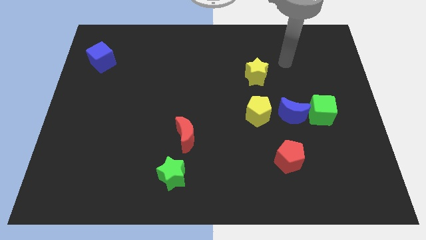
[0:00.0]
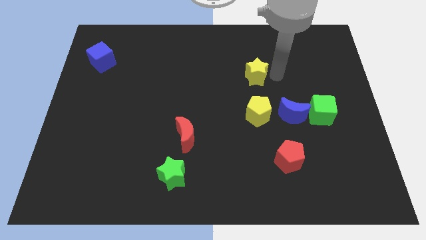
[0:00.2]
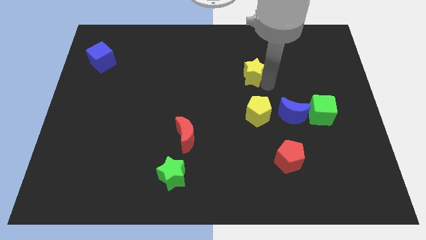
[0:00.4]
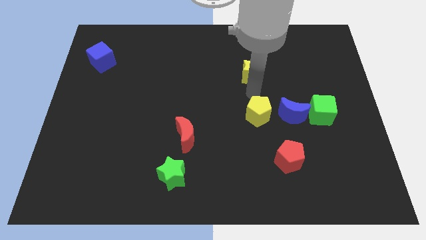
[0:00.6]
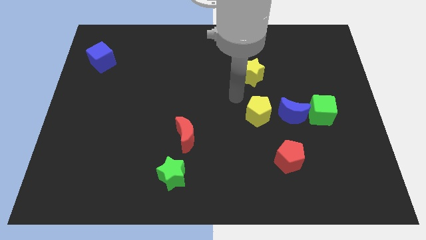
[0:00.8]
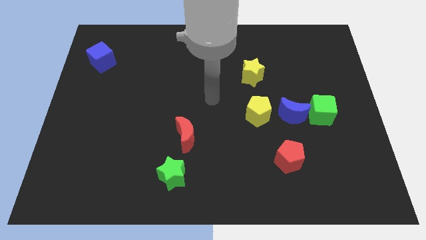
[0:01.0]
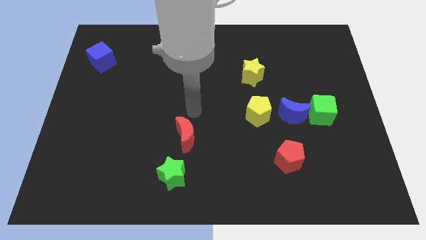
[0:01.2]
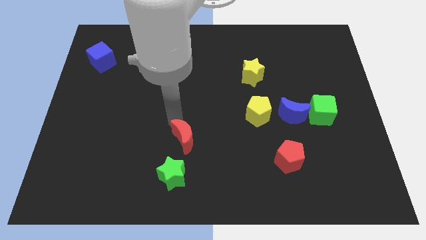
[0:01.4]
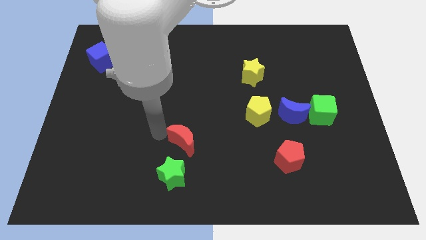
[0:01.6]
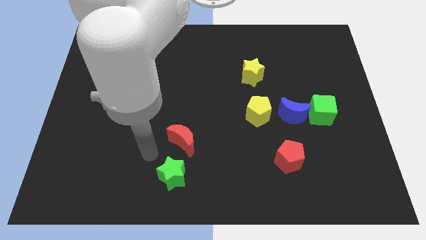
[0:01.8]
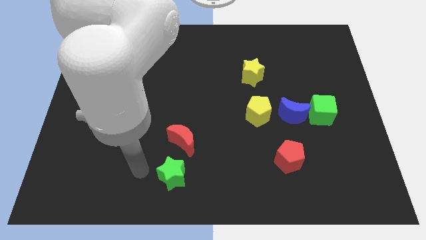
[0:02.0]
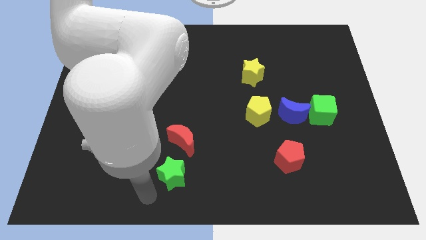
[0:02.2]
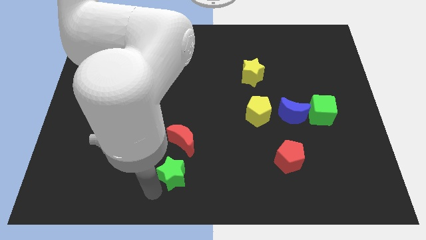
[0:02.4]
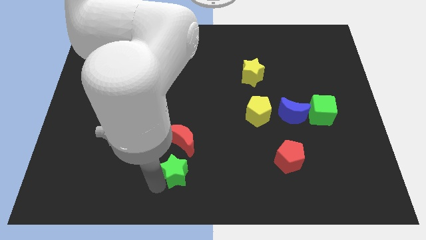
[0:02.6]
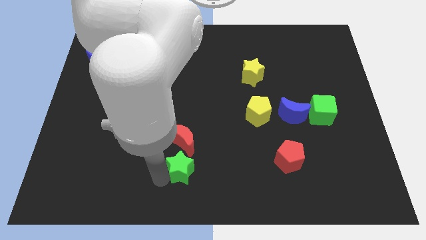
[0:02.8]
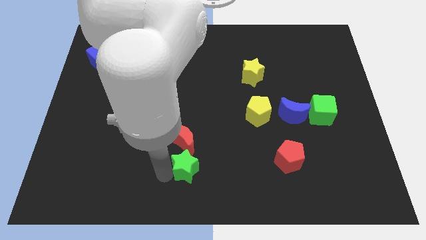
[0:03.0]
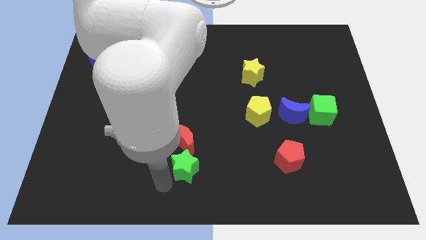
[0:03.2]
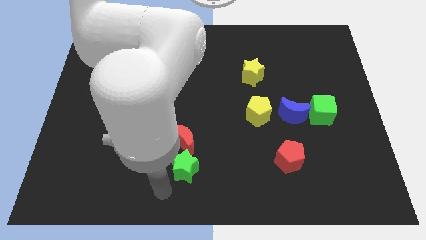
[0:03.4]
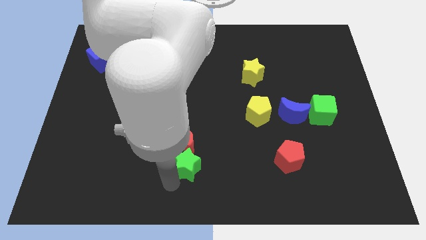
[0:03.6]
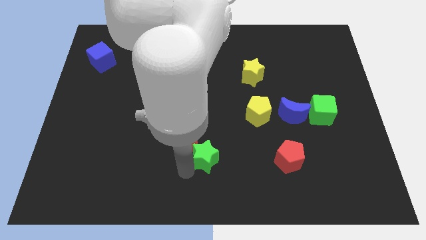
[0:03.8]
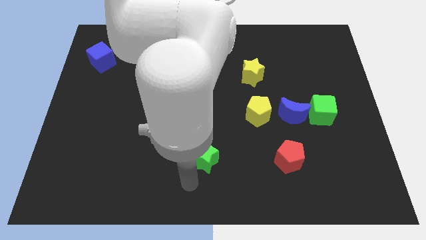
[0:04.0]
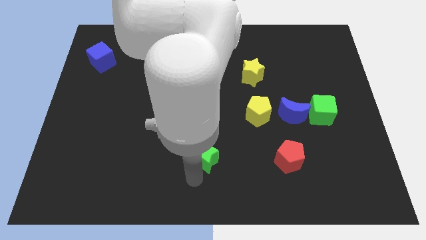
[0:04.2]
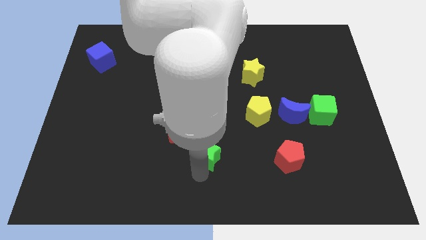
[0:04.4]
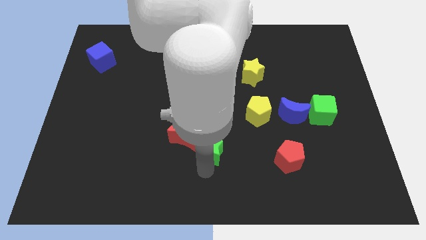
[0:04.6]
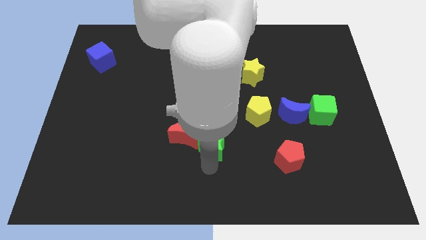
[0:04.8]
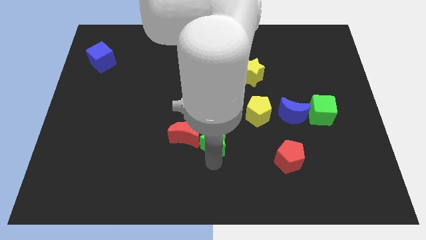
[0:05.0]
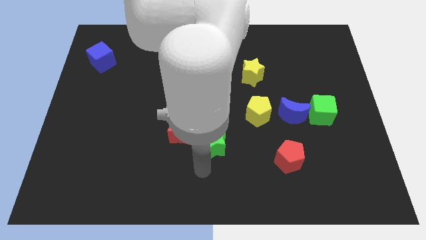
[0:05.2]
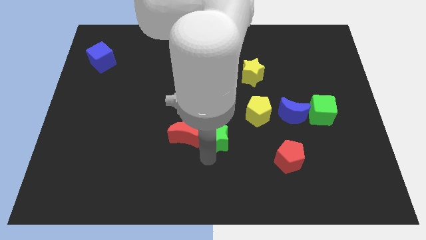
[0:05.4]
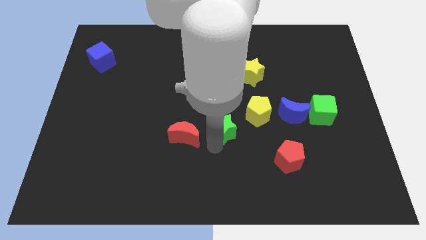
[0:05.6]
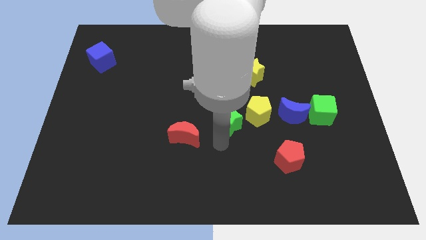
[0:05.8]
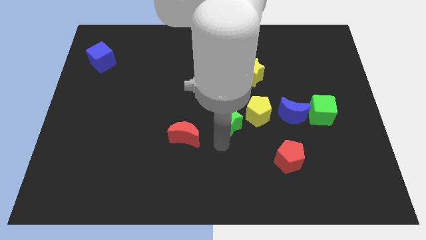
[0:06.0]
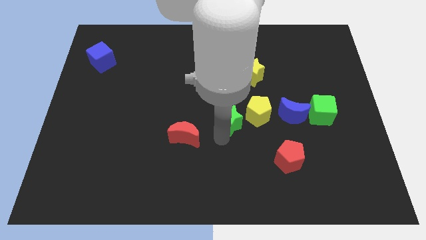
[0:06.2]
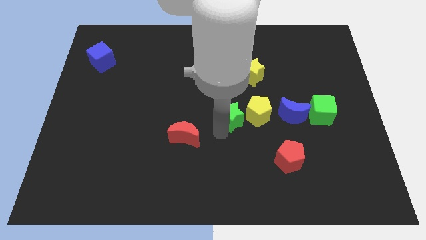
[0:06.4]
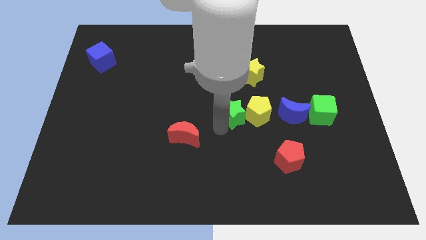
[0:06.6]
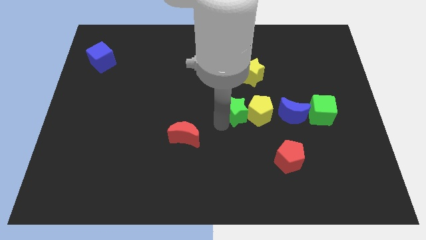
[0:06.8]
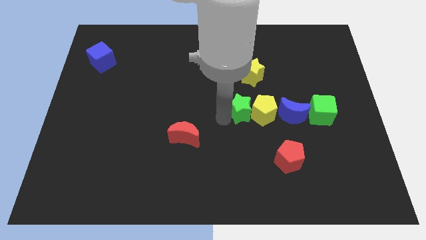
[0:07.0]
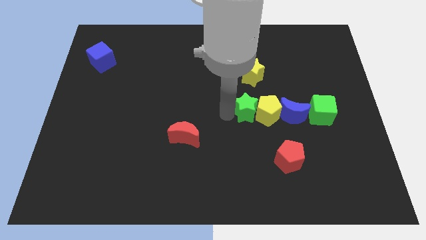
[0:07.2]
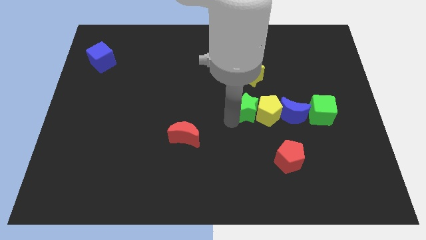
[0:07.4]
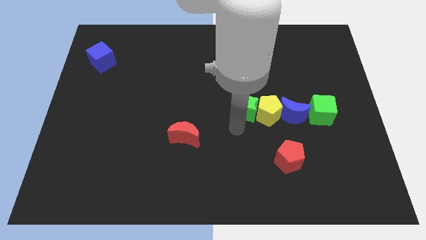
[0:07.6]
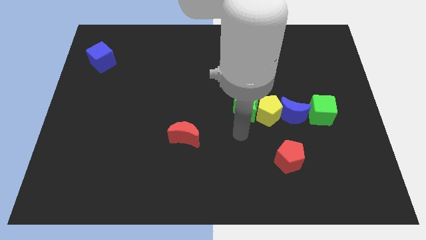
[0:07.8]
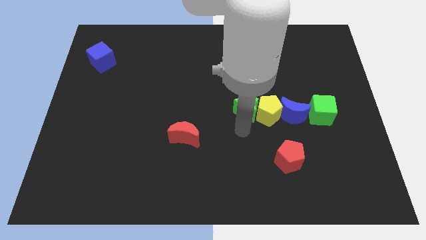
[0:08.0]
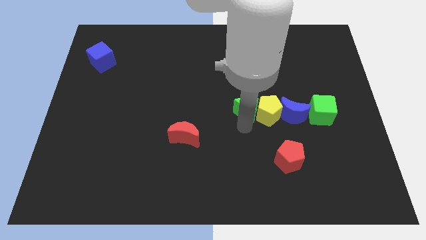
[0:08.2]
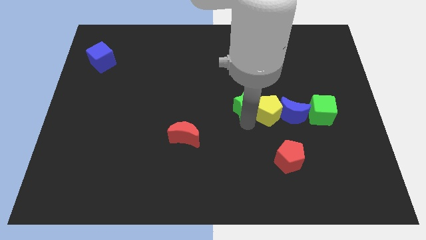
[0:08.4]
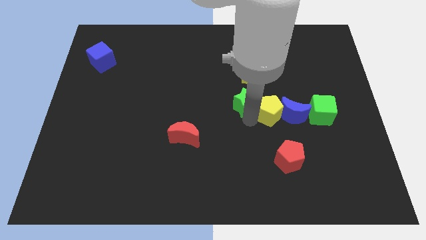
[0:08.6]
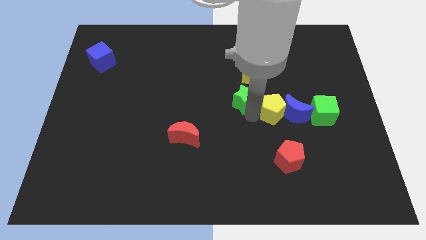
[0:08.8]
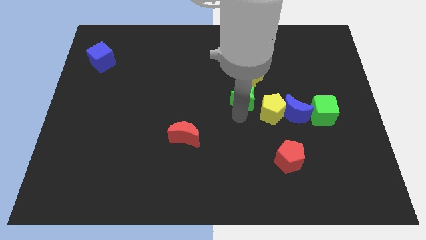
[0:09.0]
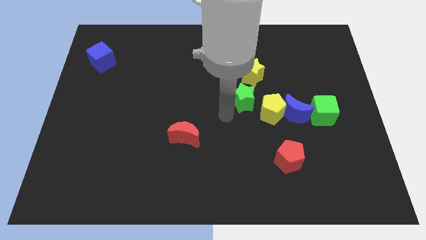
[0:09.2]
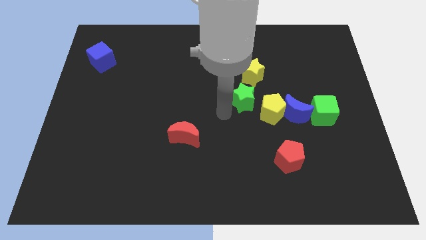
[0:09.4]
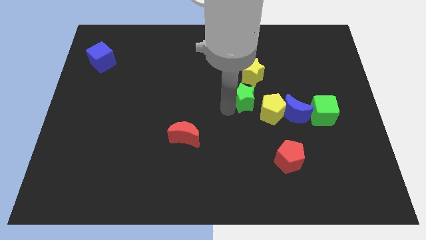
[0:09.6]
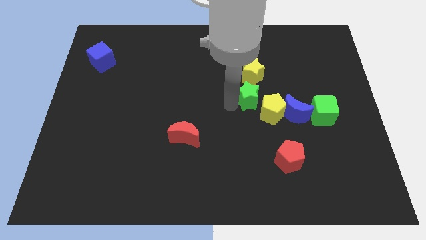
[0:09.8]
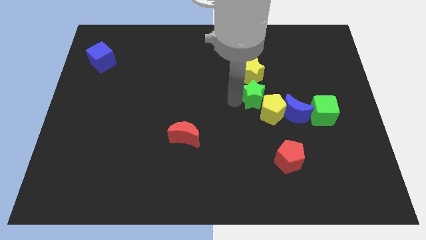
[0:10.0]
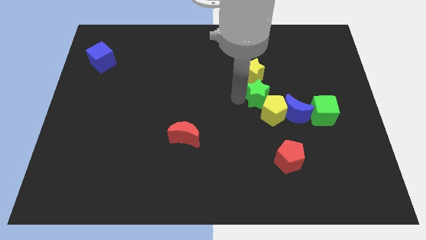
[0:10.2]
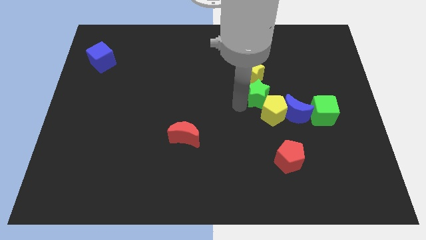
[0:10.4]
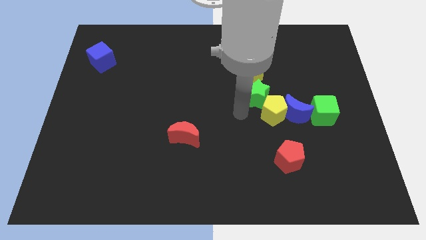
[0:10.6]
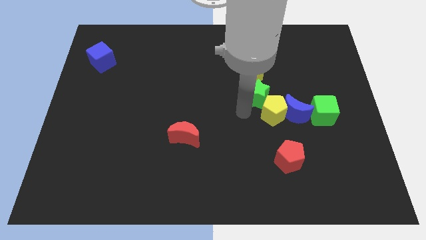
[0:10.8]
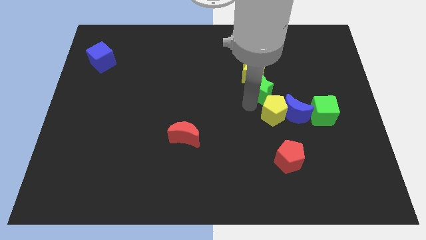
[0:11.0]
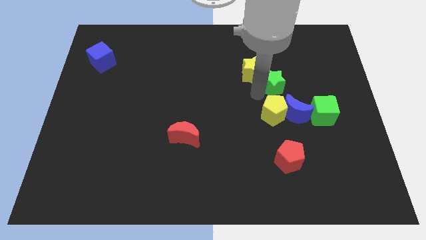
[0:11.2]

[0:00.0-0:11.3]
push the green star above the blue moon

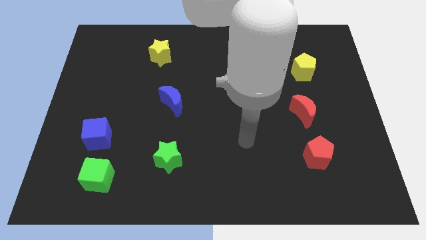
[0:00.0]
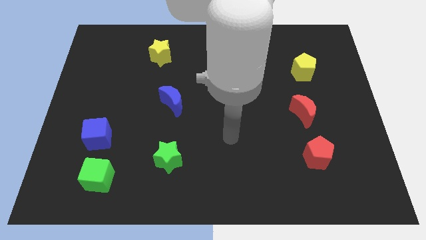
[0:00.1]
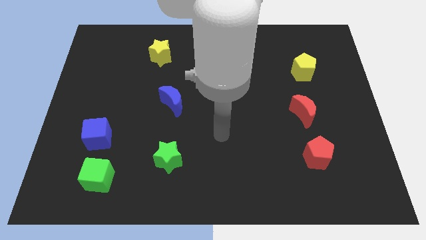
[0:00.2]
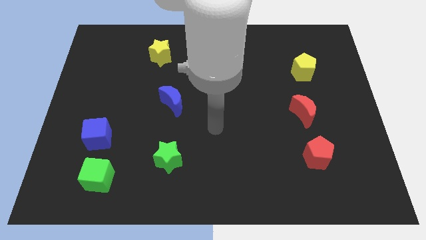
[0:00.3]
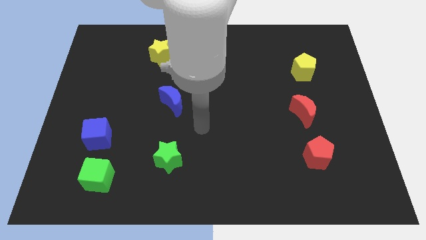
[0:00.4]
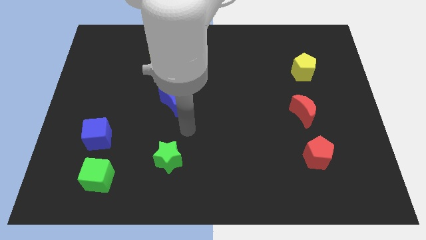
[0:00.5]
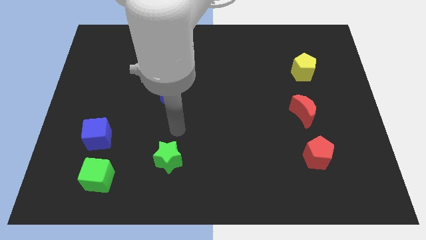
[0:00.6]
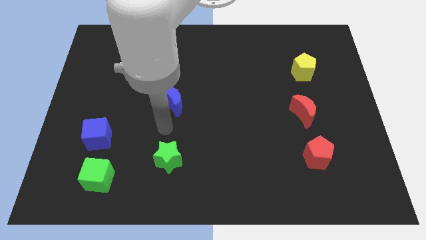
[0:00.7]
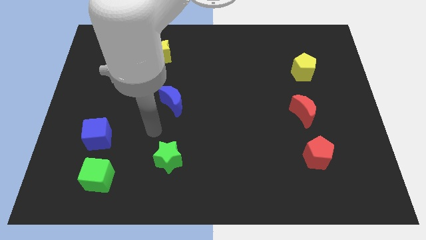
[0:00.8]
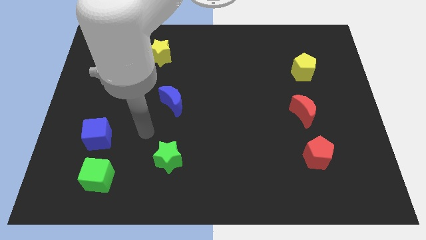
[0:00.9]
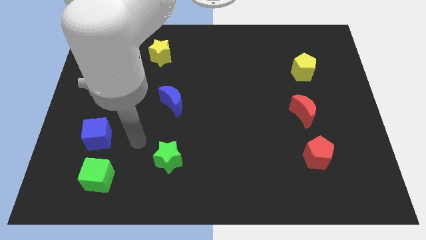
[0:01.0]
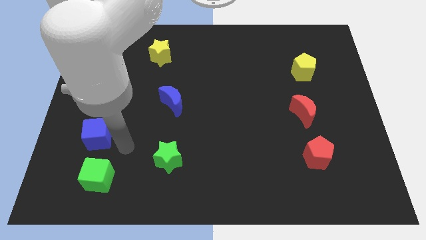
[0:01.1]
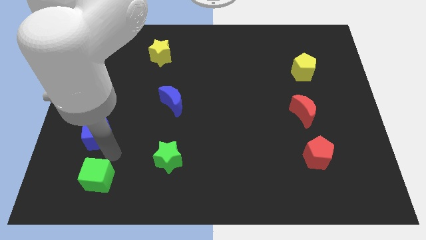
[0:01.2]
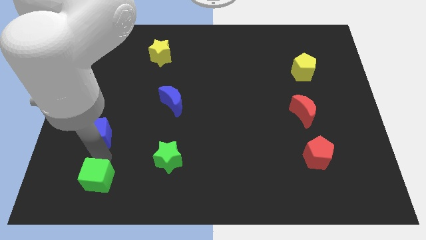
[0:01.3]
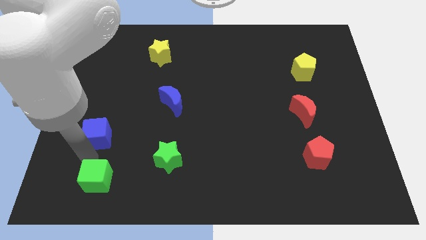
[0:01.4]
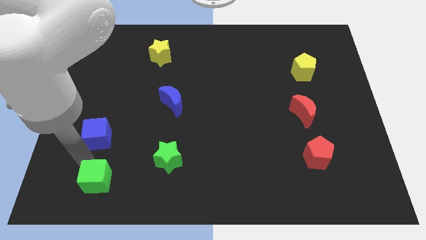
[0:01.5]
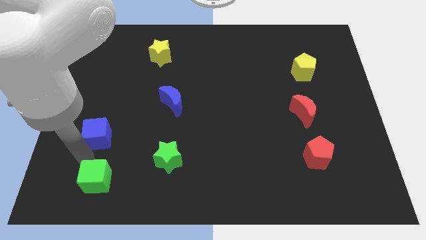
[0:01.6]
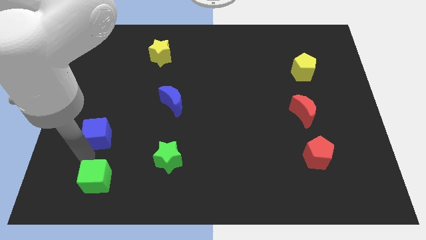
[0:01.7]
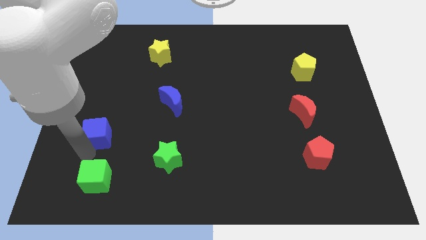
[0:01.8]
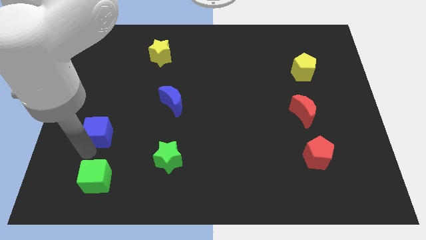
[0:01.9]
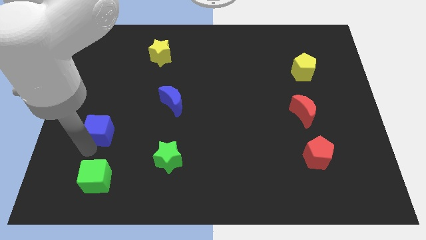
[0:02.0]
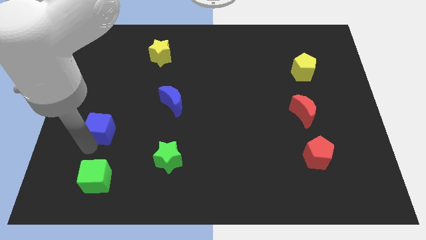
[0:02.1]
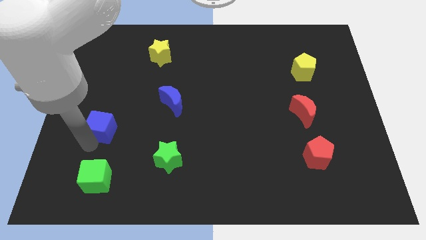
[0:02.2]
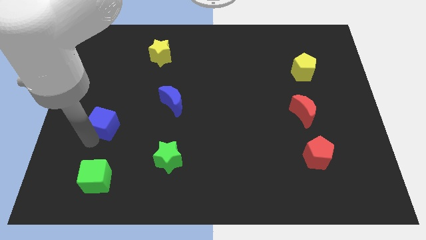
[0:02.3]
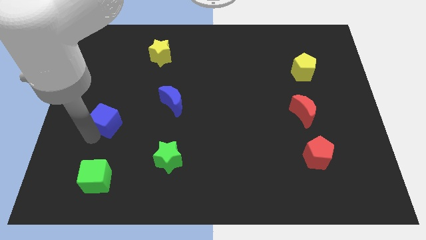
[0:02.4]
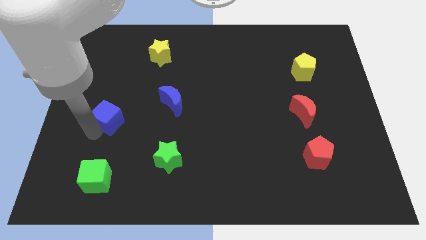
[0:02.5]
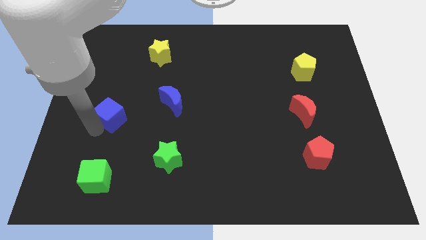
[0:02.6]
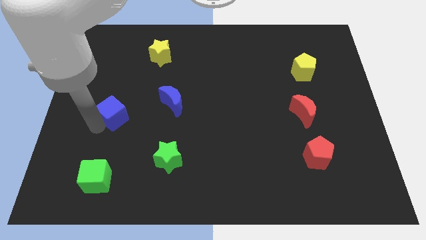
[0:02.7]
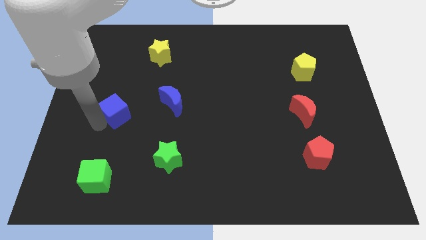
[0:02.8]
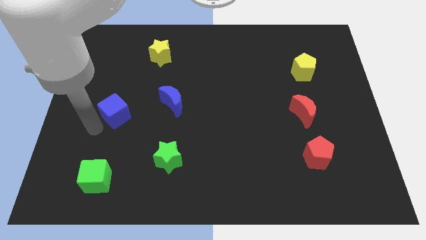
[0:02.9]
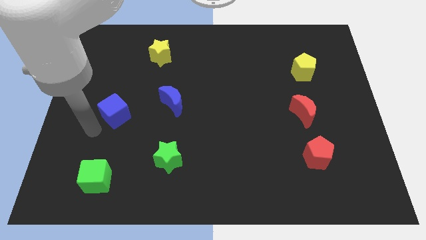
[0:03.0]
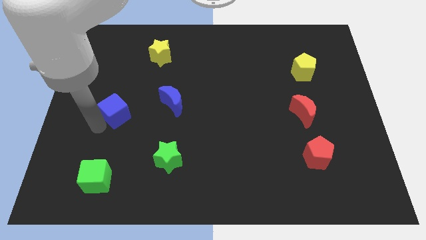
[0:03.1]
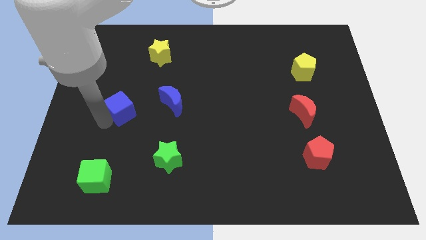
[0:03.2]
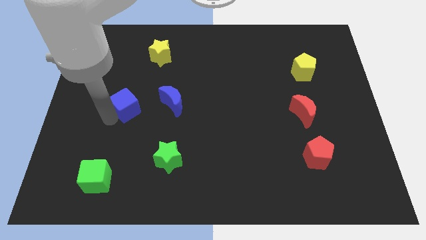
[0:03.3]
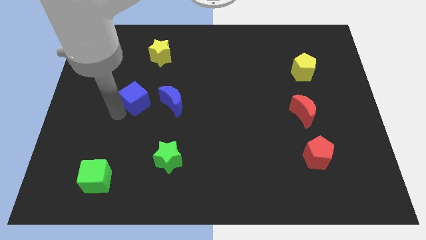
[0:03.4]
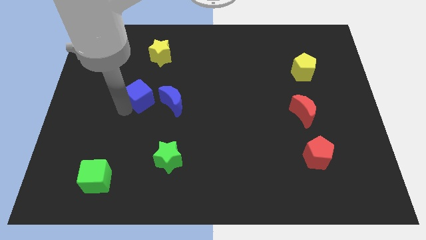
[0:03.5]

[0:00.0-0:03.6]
put the blue cube to the top left side of the blue moon
